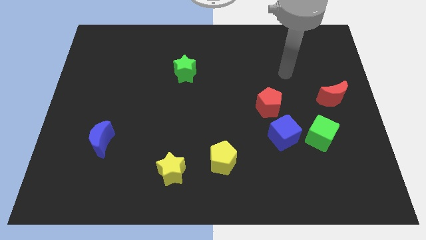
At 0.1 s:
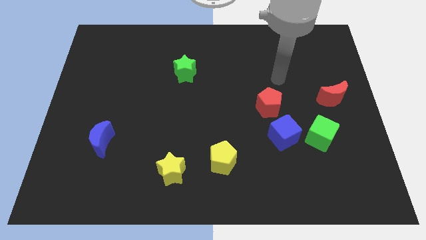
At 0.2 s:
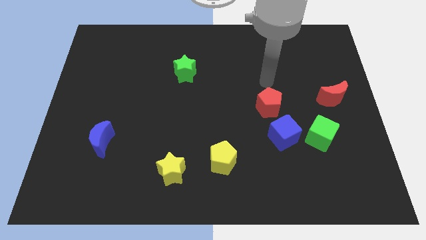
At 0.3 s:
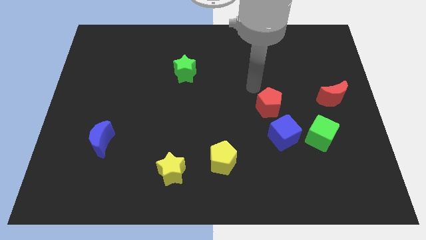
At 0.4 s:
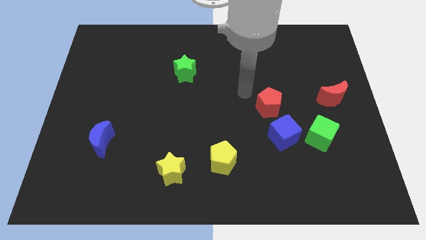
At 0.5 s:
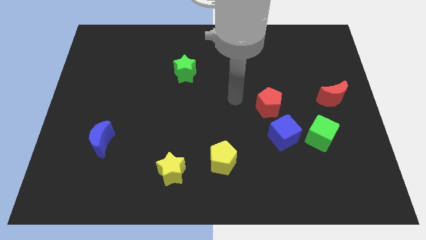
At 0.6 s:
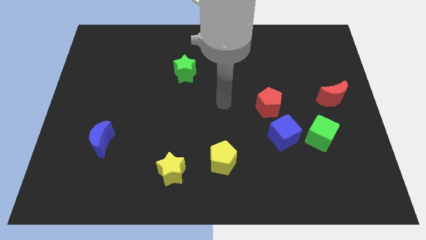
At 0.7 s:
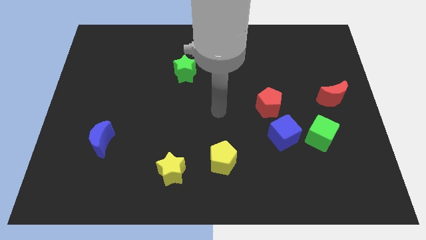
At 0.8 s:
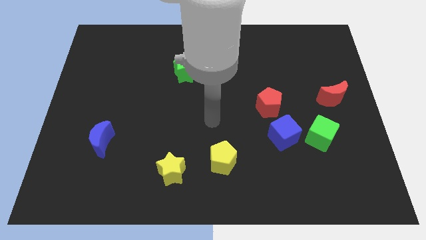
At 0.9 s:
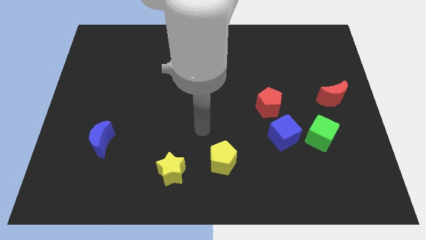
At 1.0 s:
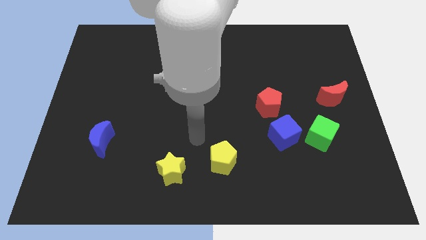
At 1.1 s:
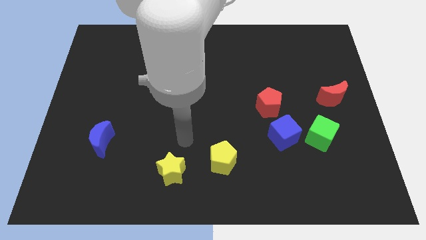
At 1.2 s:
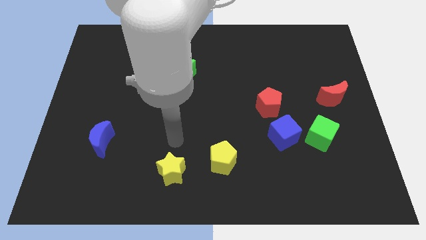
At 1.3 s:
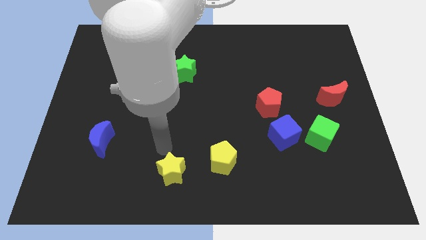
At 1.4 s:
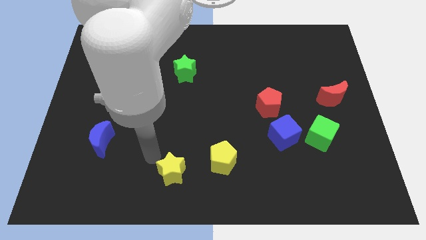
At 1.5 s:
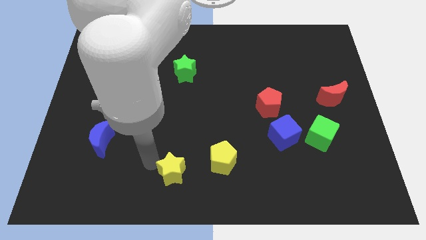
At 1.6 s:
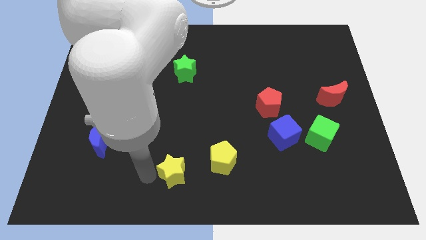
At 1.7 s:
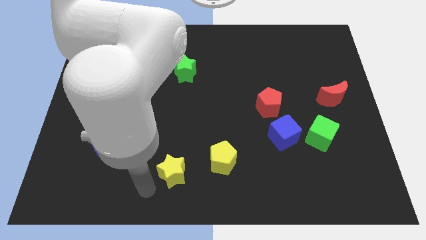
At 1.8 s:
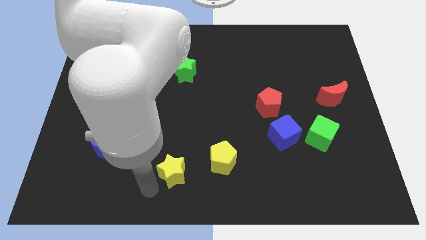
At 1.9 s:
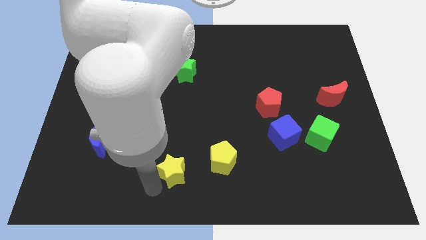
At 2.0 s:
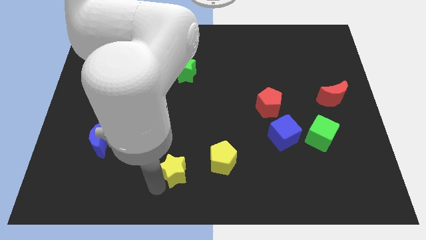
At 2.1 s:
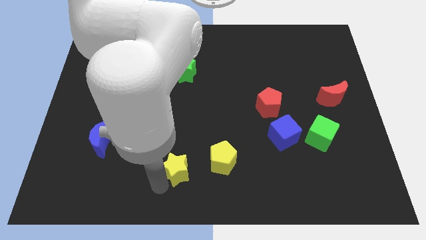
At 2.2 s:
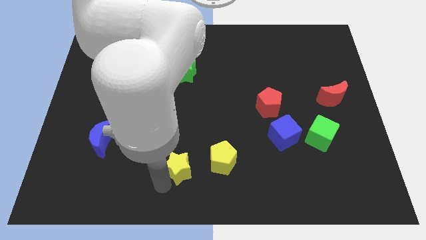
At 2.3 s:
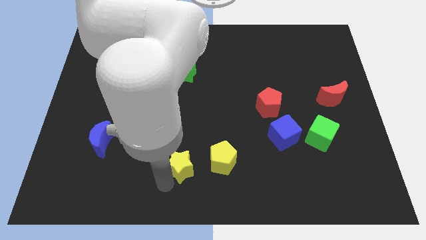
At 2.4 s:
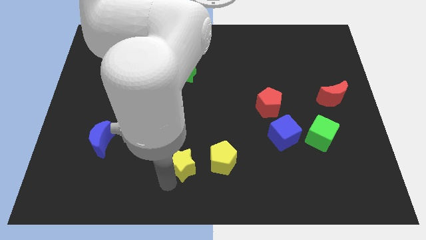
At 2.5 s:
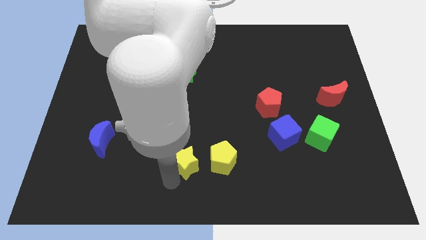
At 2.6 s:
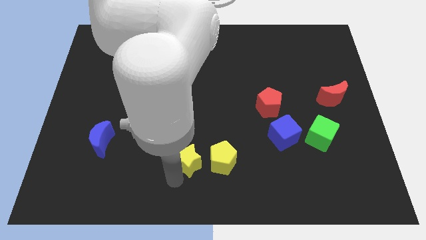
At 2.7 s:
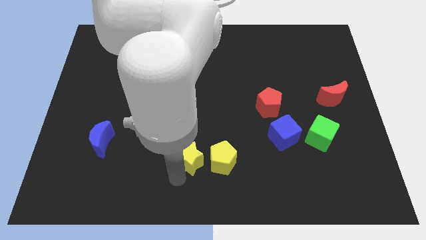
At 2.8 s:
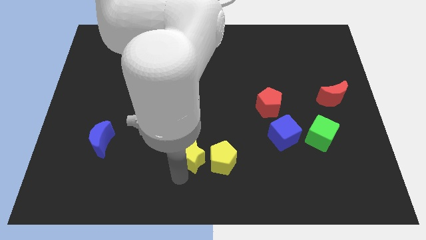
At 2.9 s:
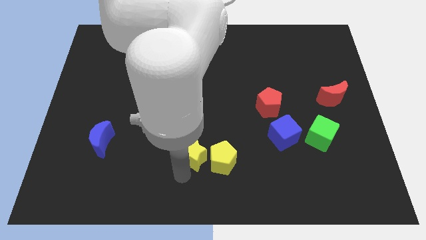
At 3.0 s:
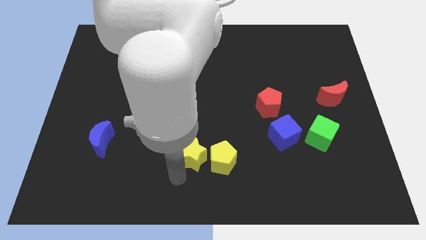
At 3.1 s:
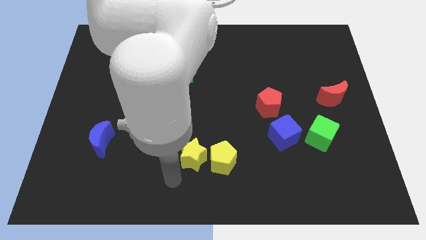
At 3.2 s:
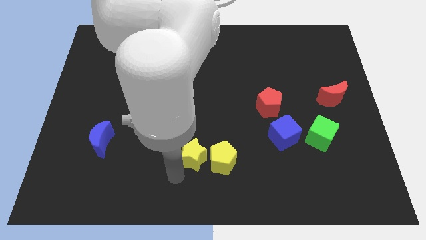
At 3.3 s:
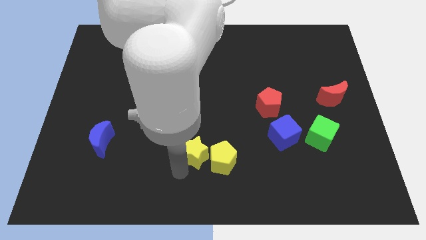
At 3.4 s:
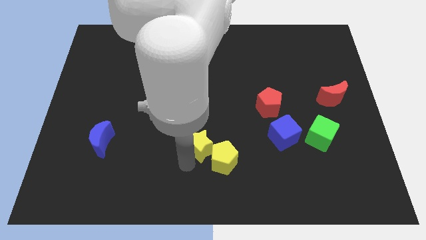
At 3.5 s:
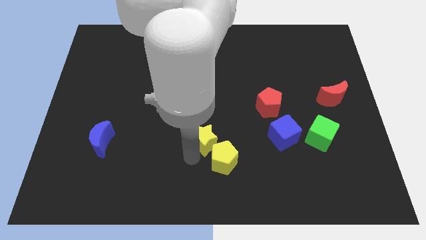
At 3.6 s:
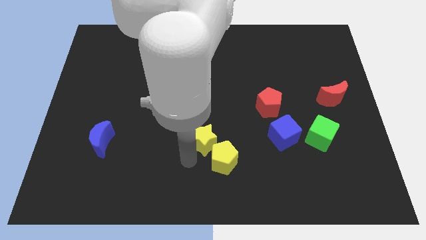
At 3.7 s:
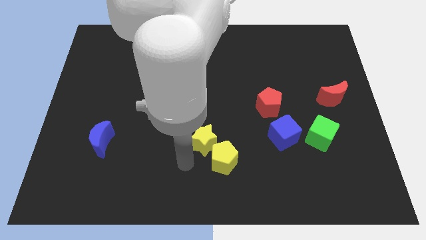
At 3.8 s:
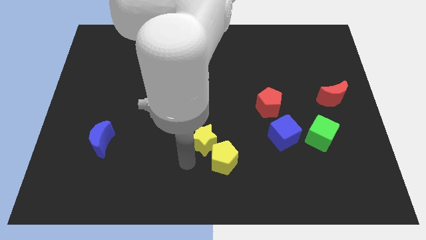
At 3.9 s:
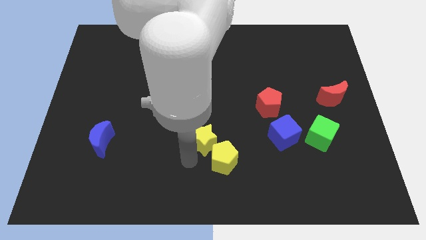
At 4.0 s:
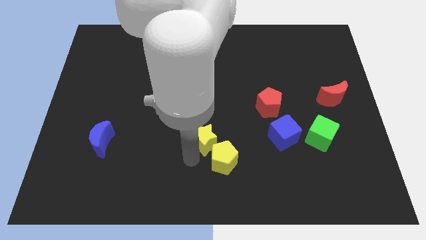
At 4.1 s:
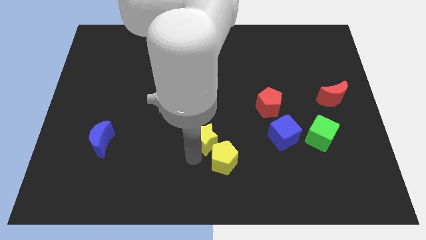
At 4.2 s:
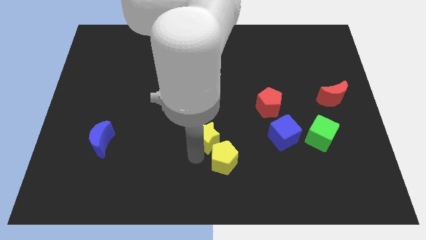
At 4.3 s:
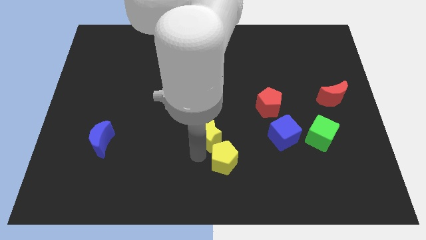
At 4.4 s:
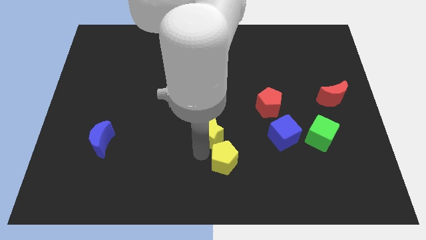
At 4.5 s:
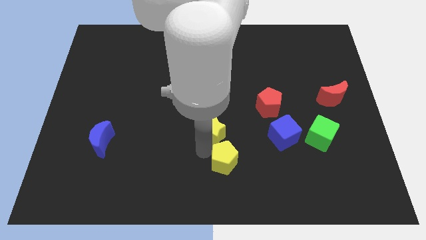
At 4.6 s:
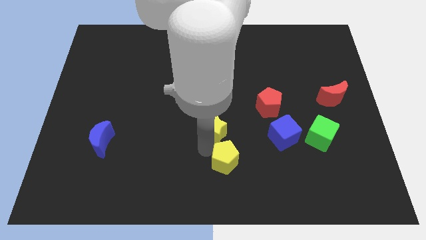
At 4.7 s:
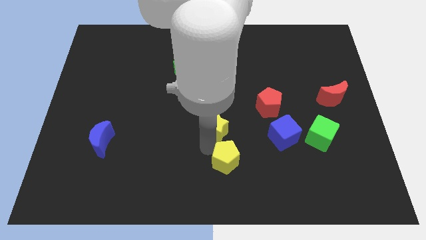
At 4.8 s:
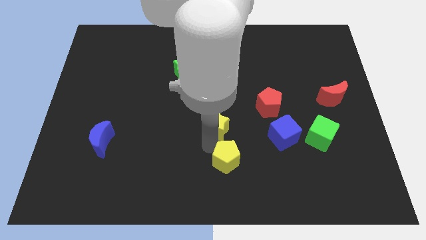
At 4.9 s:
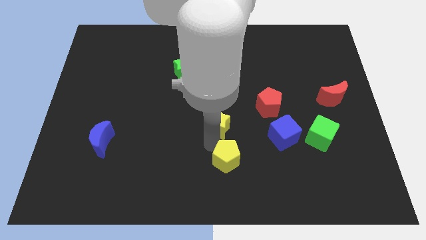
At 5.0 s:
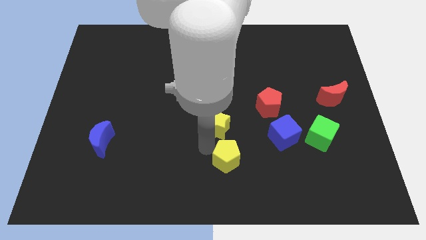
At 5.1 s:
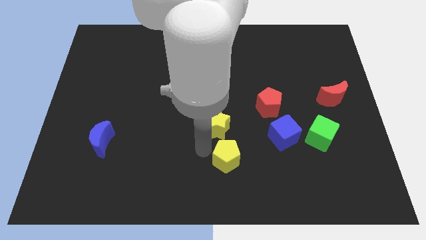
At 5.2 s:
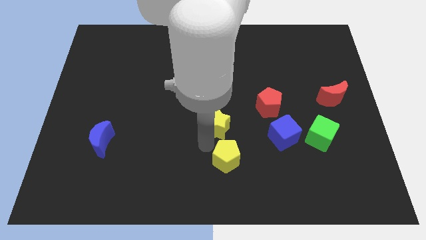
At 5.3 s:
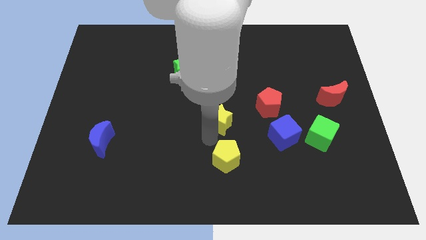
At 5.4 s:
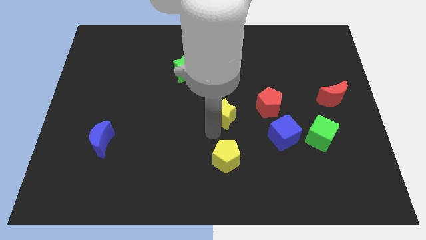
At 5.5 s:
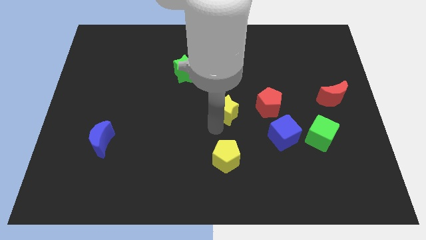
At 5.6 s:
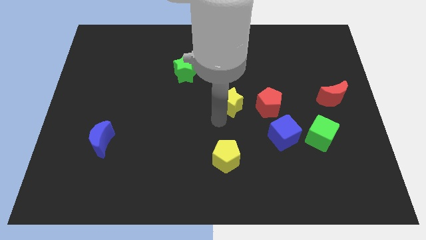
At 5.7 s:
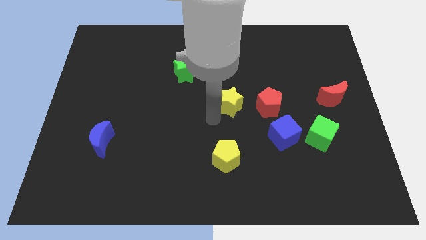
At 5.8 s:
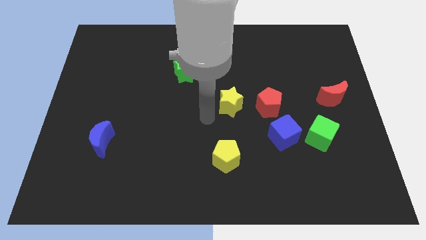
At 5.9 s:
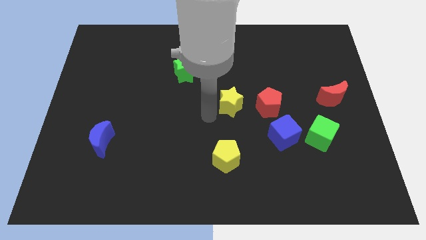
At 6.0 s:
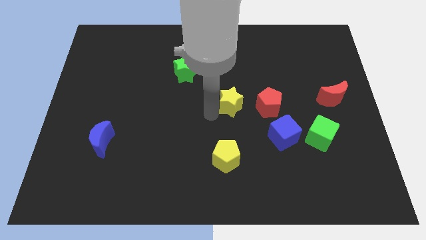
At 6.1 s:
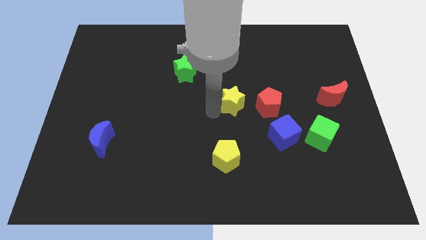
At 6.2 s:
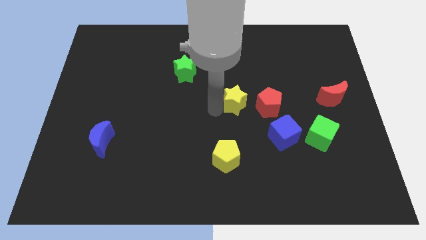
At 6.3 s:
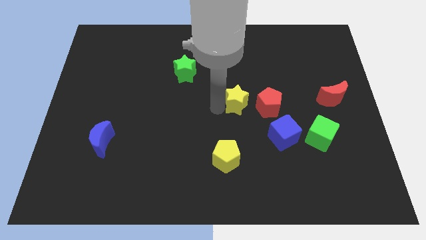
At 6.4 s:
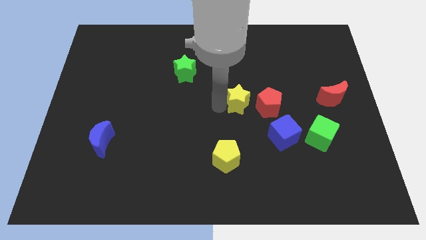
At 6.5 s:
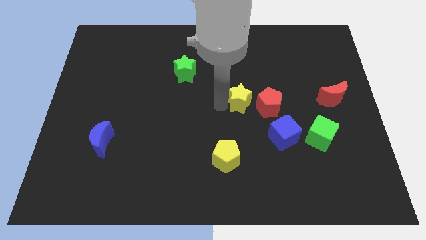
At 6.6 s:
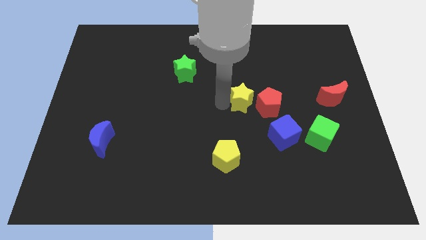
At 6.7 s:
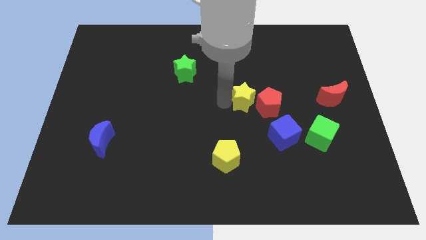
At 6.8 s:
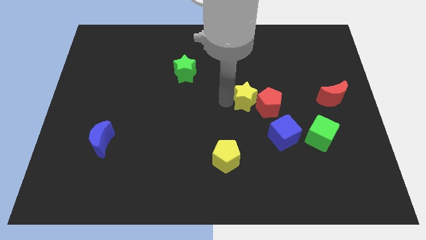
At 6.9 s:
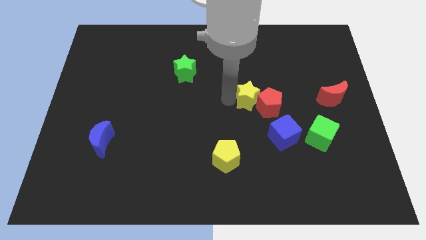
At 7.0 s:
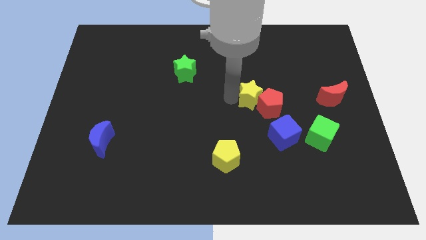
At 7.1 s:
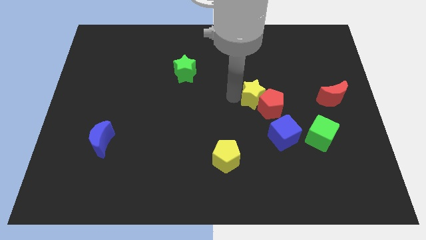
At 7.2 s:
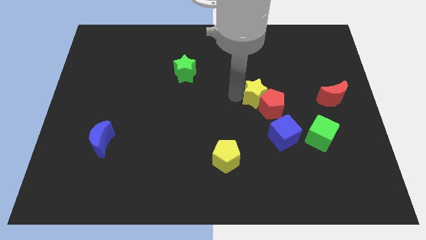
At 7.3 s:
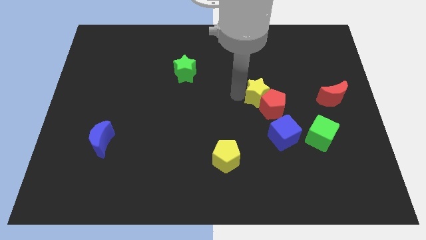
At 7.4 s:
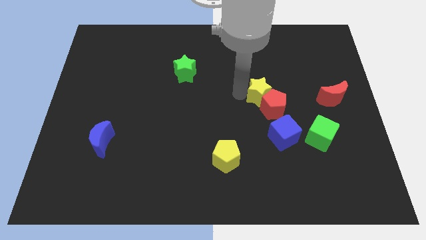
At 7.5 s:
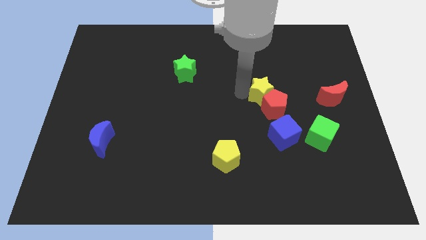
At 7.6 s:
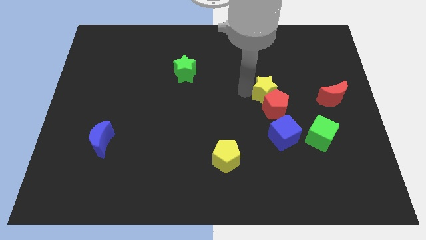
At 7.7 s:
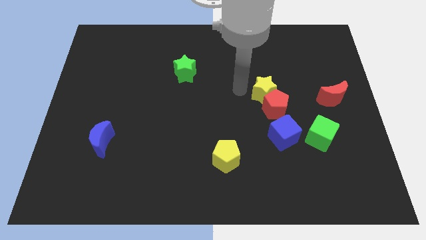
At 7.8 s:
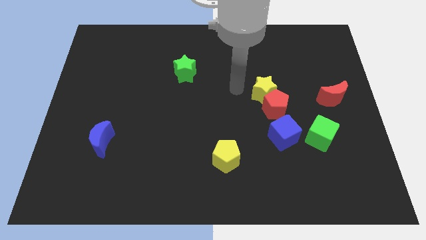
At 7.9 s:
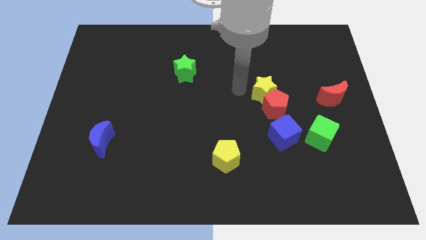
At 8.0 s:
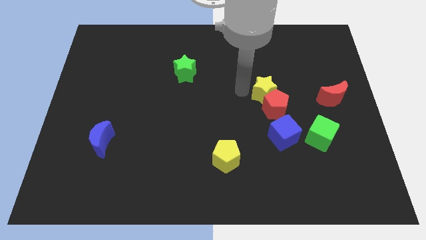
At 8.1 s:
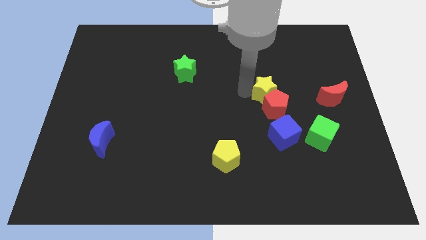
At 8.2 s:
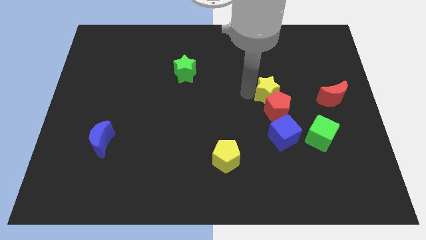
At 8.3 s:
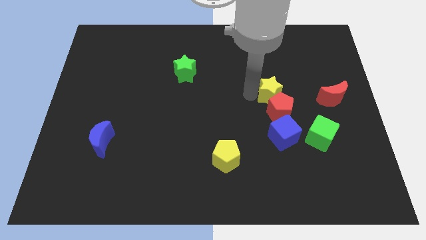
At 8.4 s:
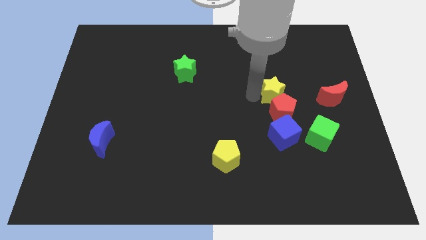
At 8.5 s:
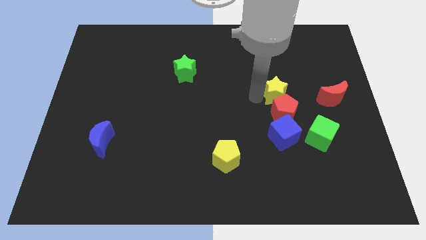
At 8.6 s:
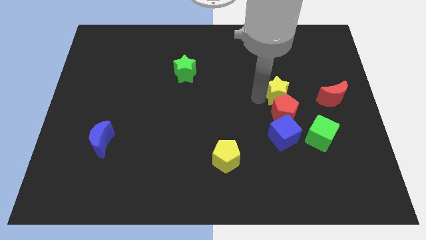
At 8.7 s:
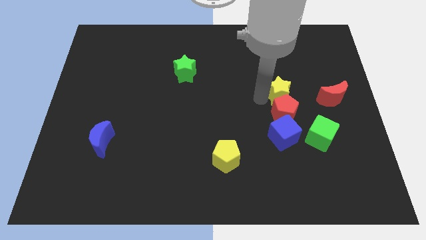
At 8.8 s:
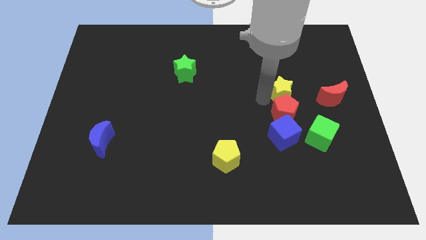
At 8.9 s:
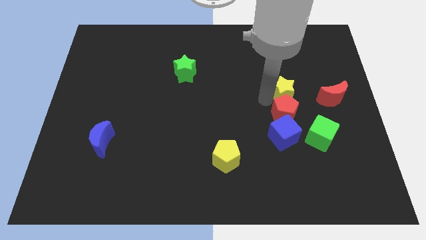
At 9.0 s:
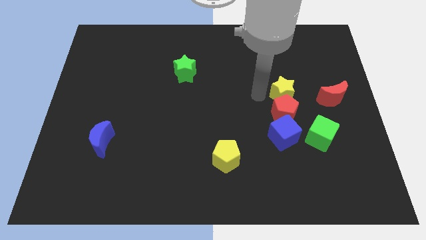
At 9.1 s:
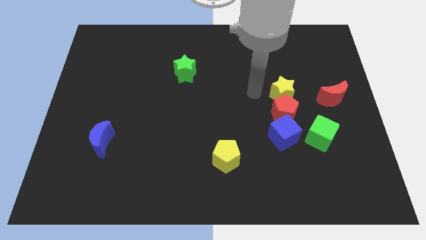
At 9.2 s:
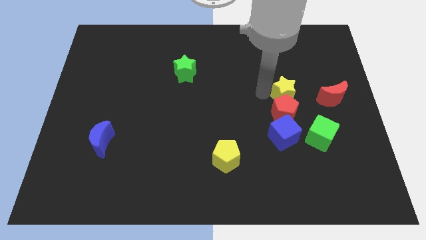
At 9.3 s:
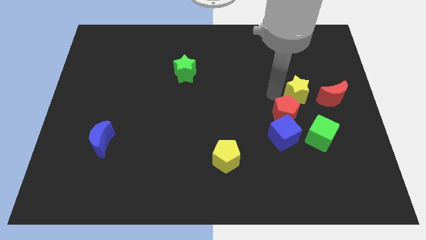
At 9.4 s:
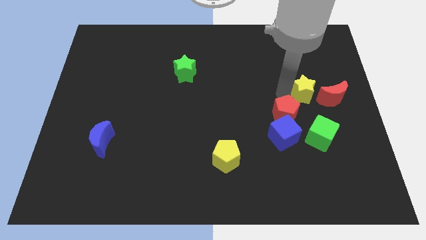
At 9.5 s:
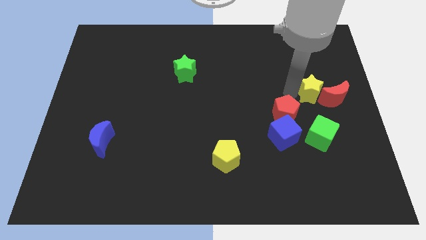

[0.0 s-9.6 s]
move the yellow star towards the red moon
